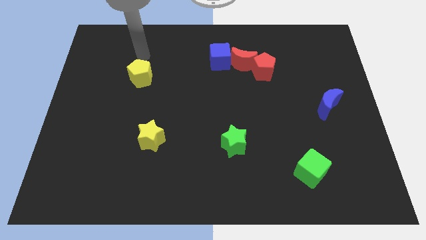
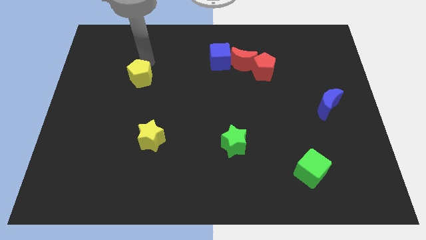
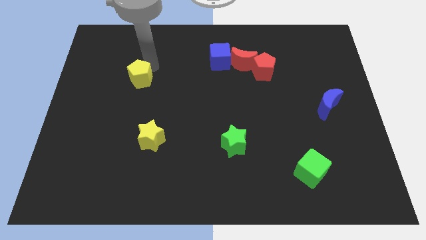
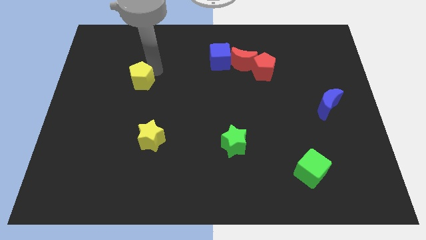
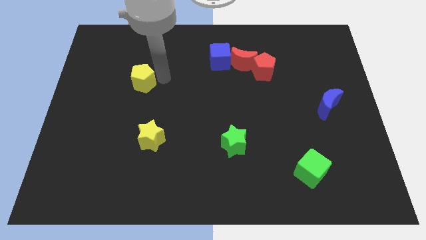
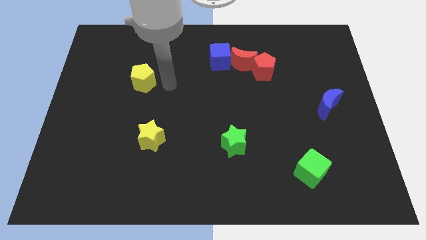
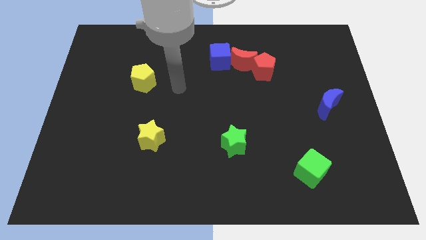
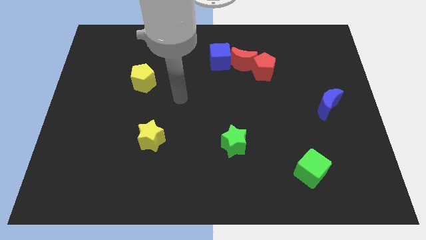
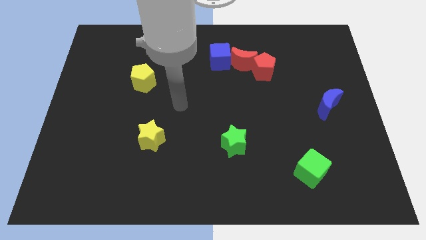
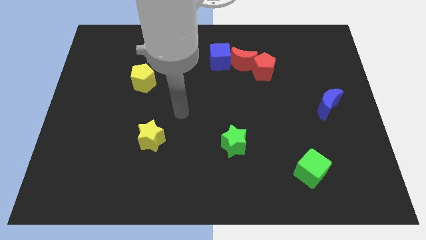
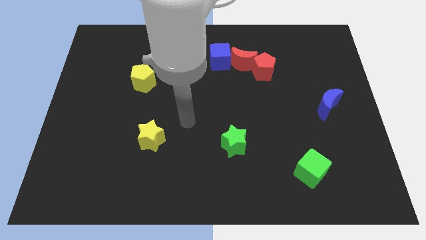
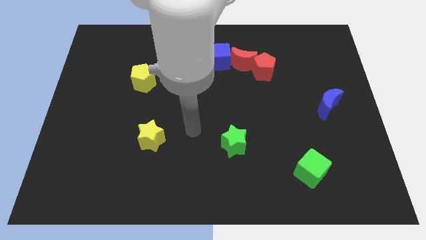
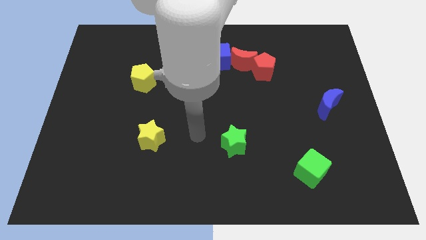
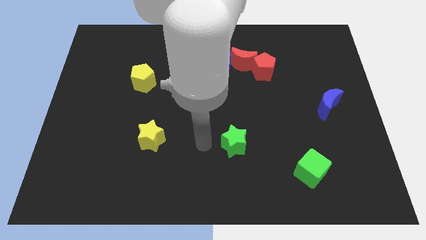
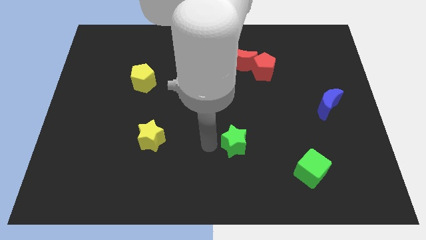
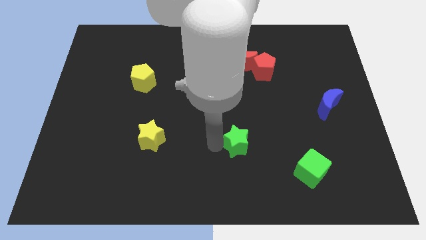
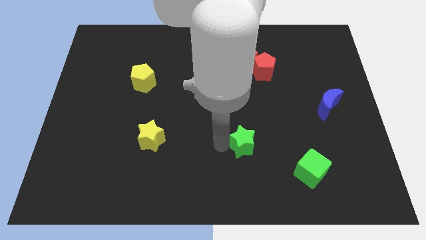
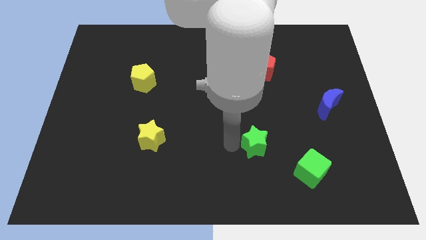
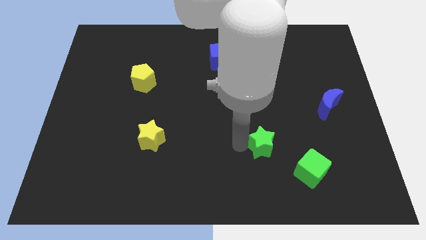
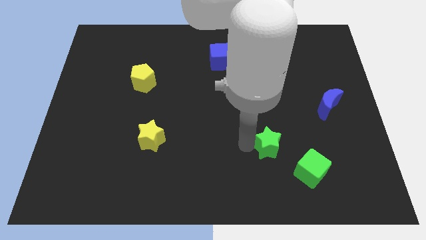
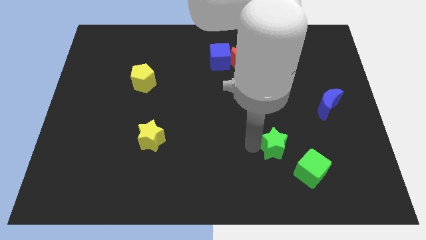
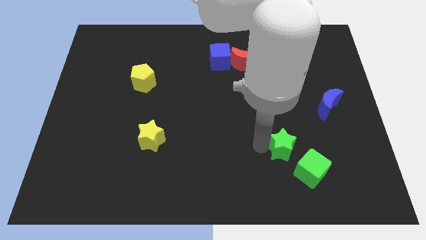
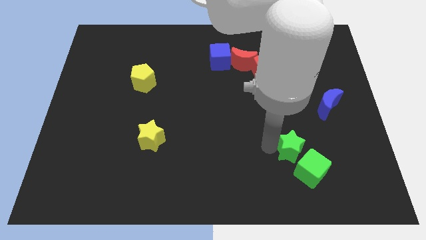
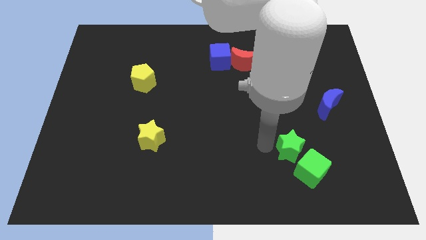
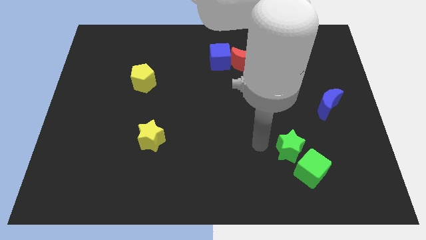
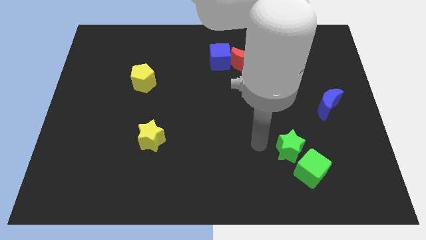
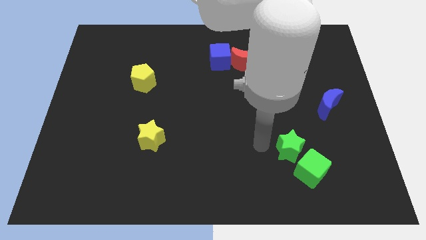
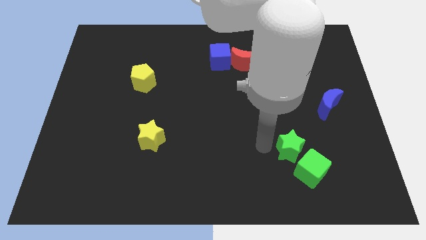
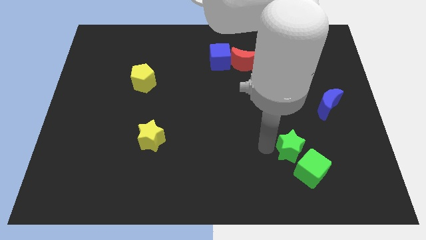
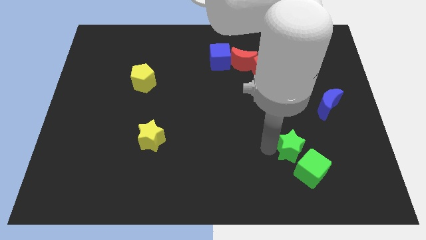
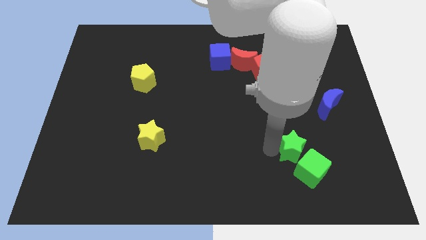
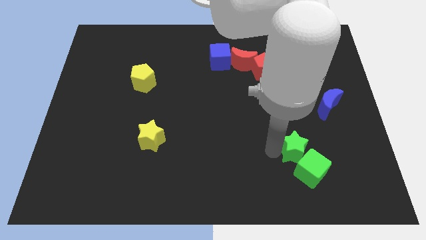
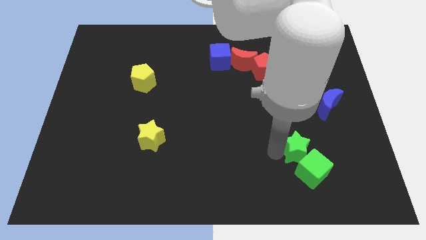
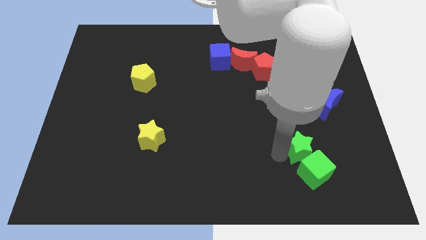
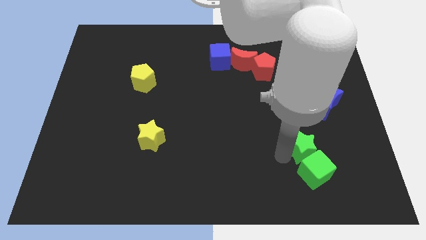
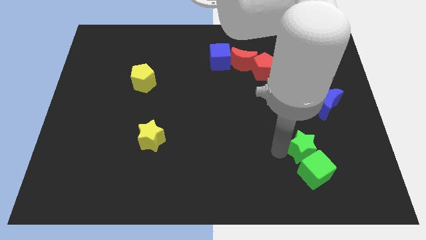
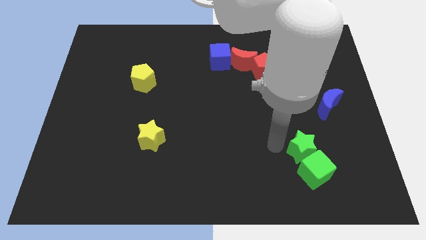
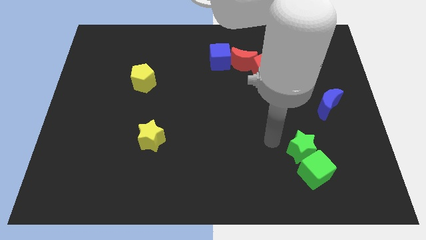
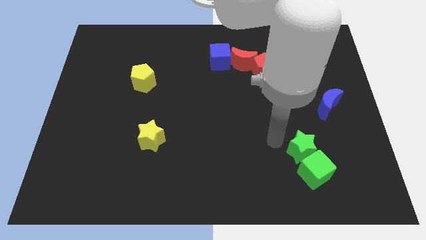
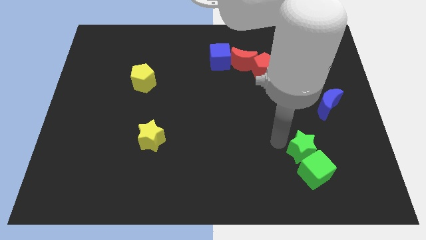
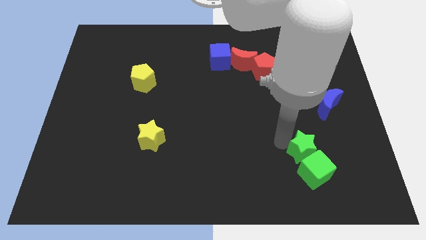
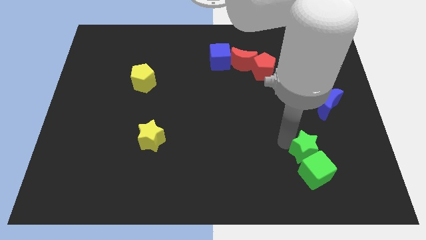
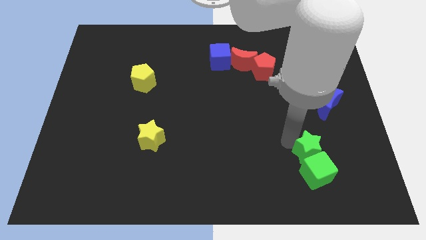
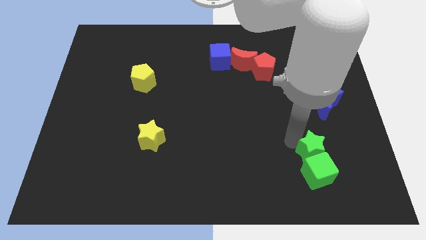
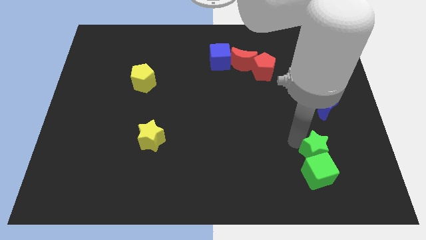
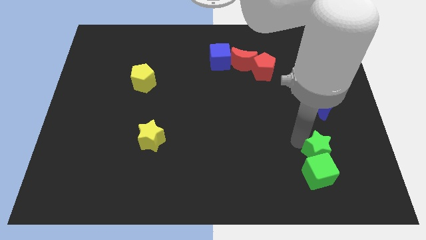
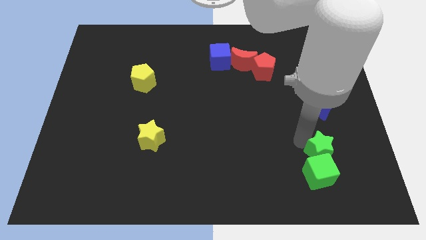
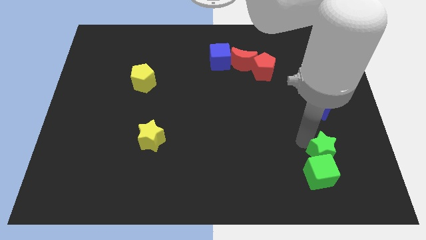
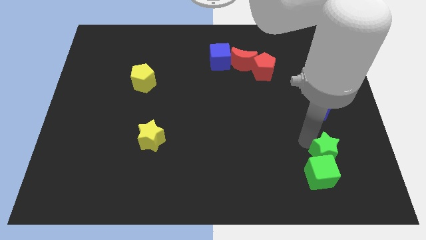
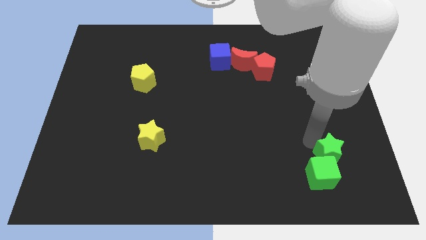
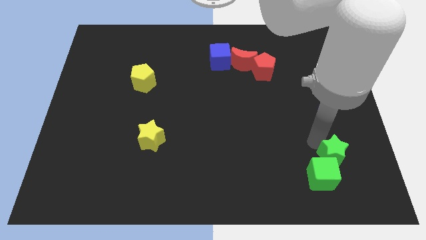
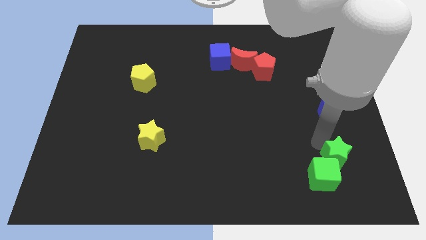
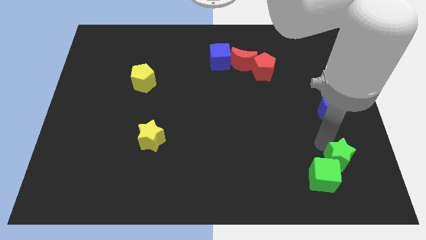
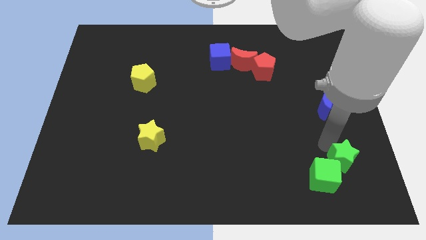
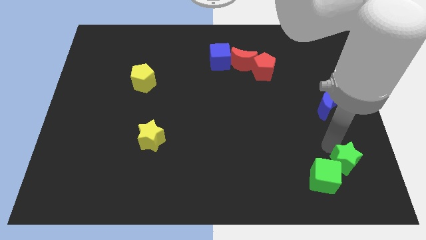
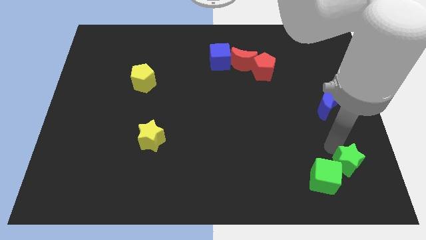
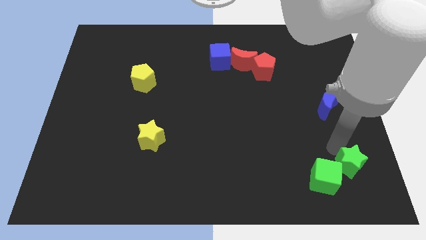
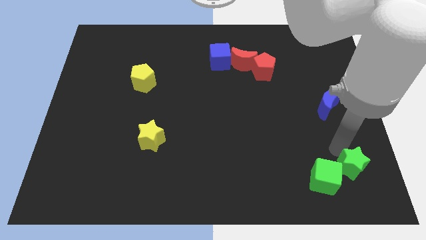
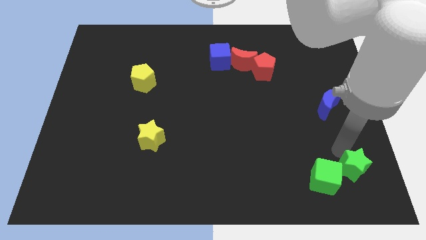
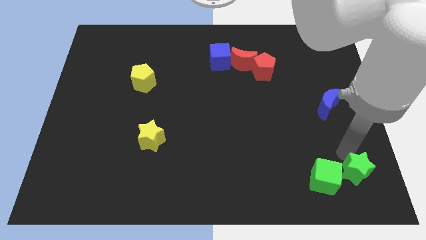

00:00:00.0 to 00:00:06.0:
put the green star to the bottom right

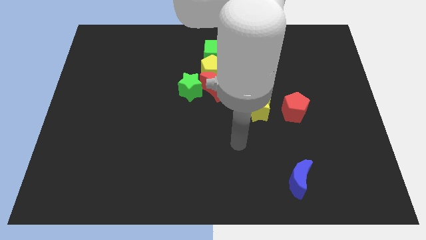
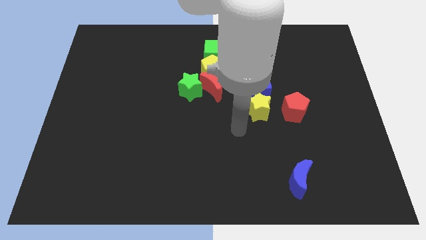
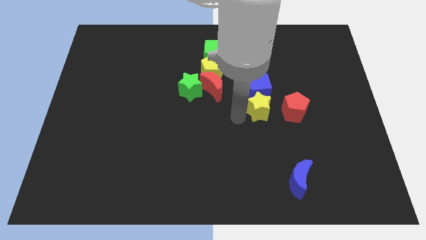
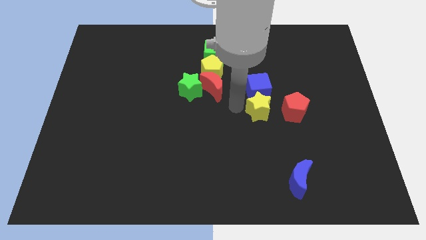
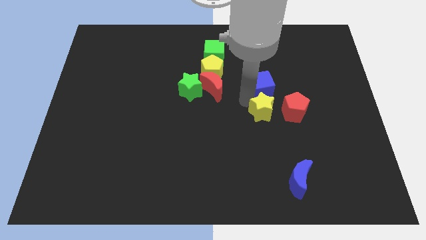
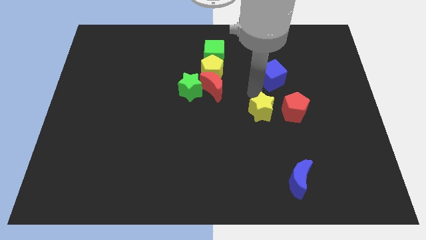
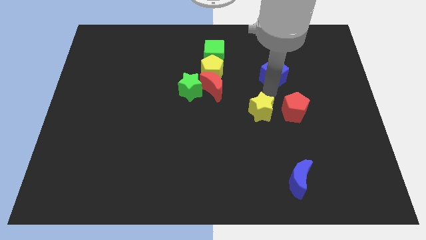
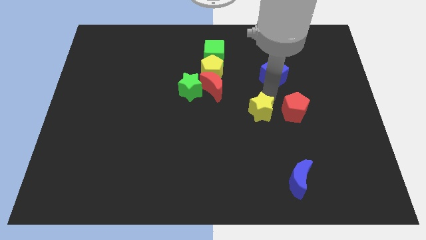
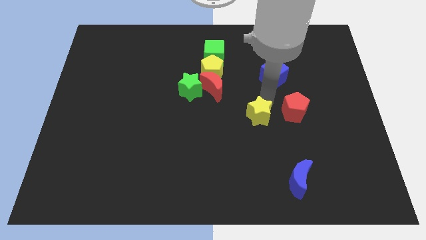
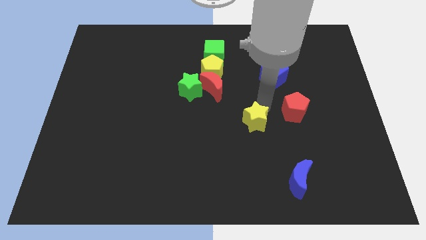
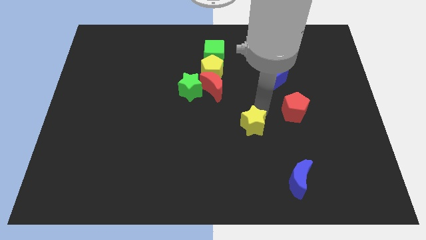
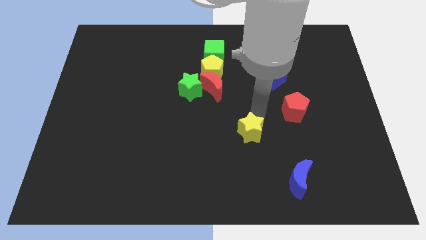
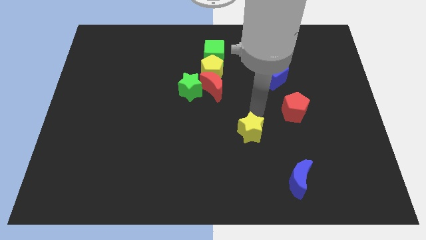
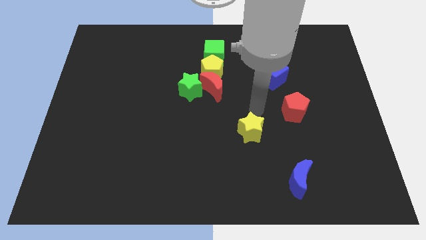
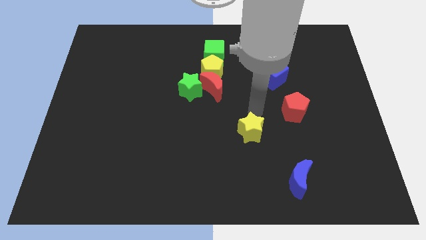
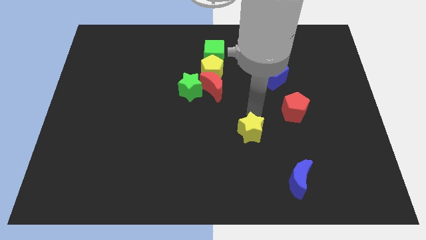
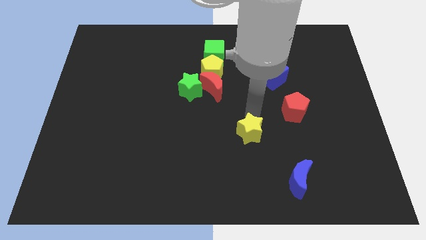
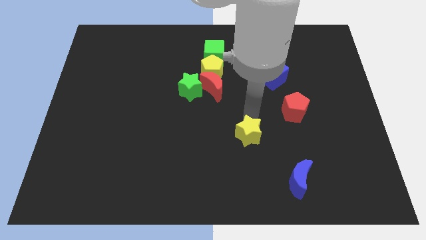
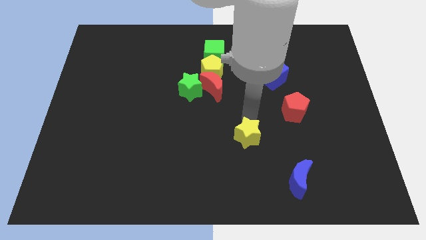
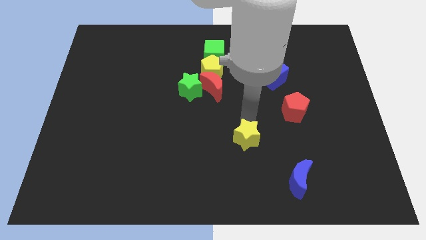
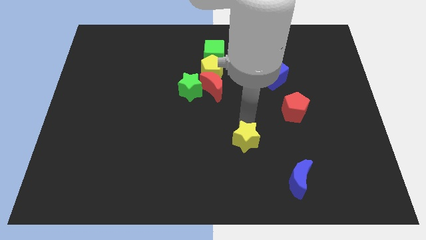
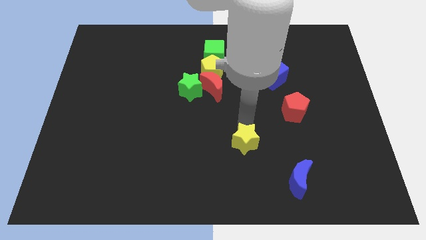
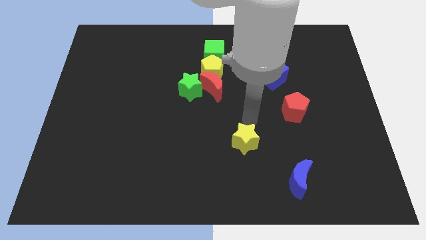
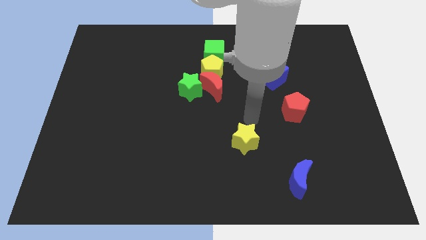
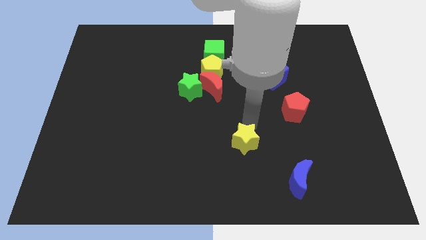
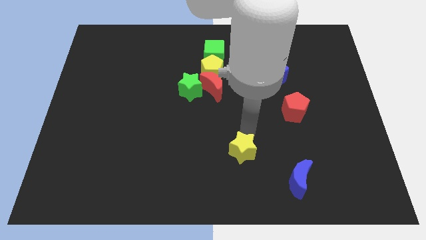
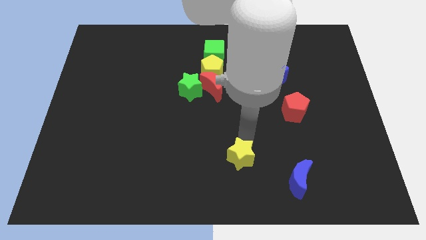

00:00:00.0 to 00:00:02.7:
push the yellow star to the bottom
